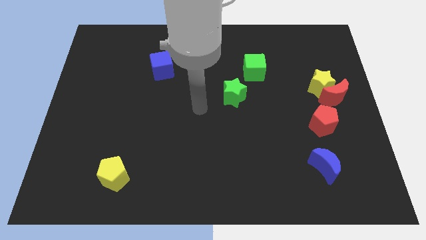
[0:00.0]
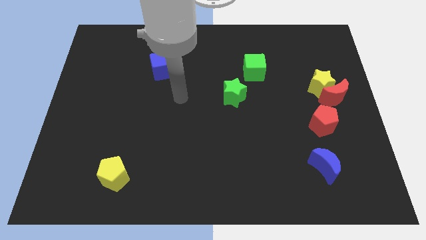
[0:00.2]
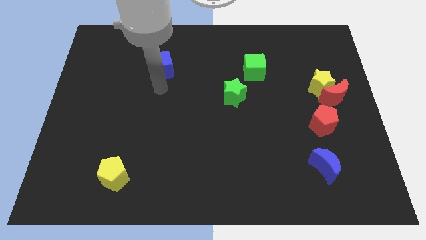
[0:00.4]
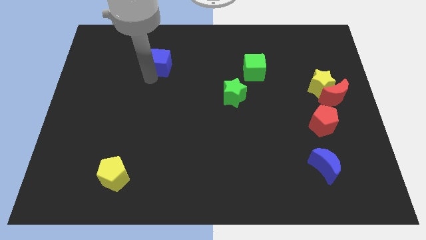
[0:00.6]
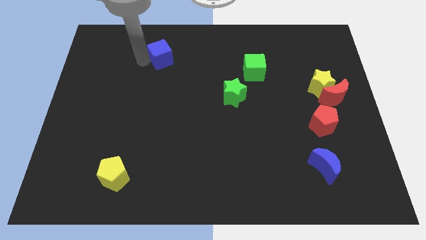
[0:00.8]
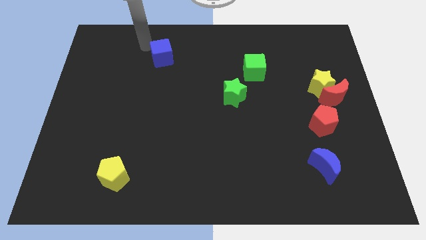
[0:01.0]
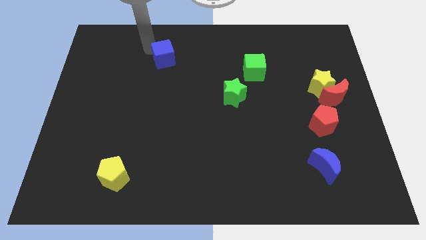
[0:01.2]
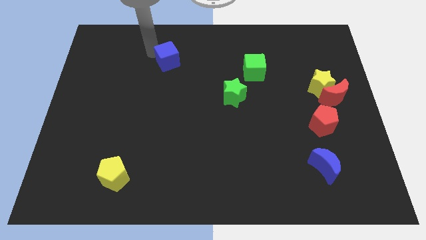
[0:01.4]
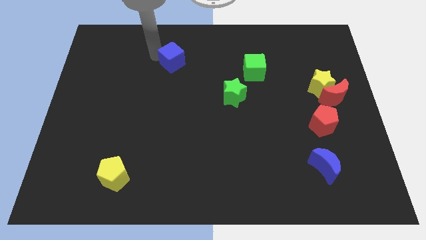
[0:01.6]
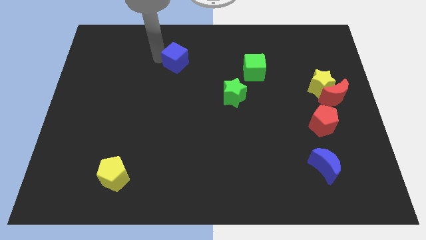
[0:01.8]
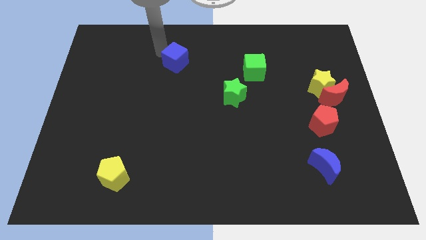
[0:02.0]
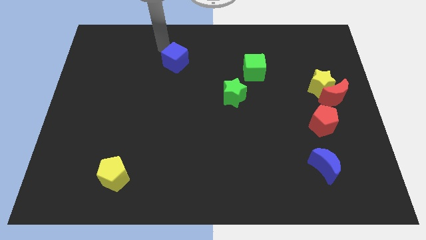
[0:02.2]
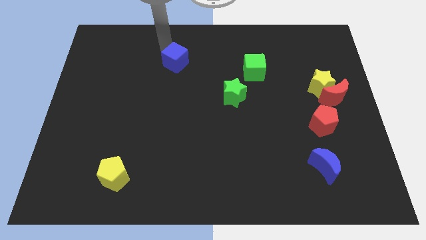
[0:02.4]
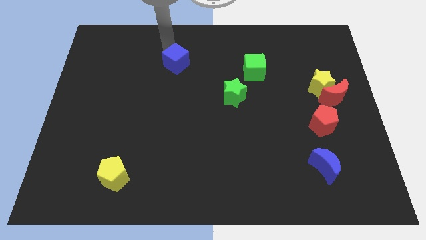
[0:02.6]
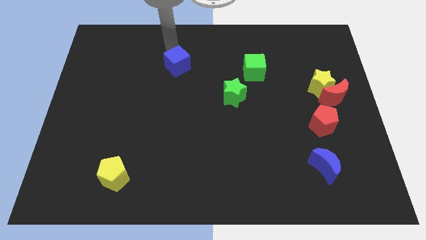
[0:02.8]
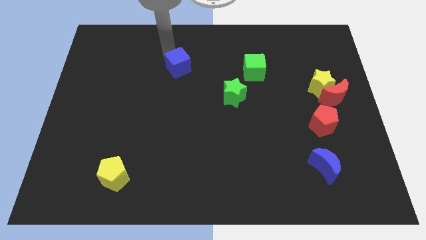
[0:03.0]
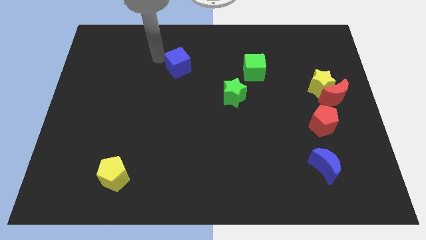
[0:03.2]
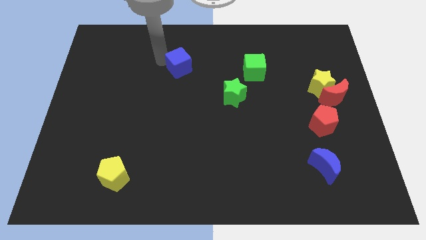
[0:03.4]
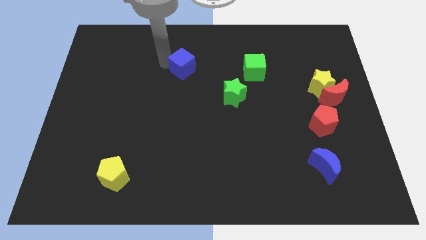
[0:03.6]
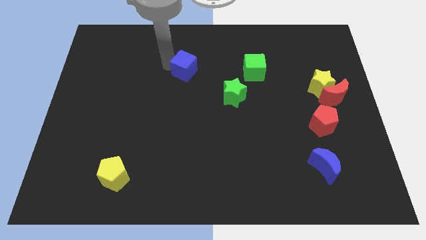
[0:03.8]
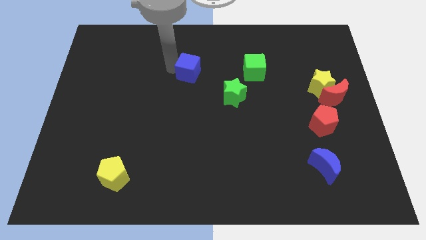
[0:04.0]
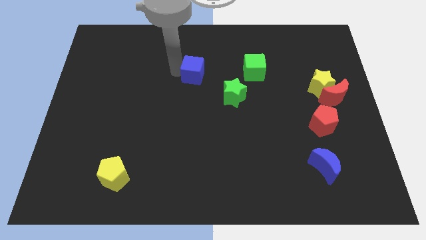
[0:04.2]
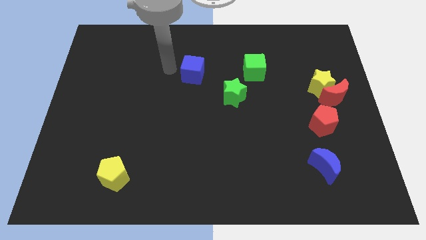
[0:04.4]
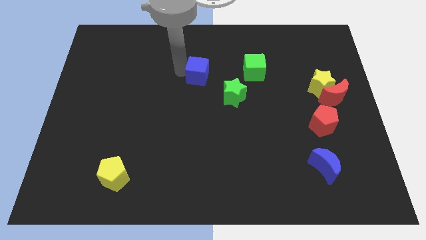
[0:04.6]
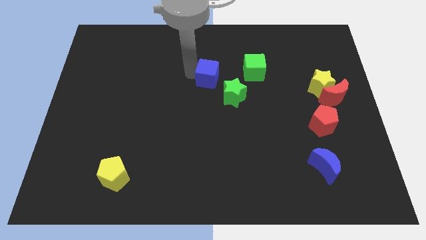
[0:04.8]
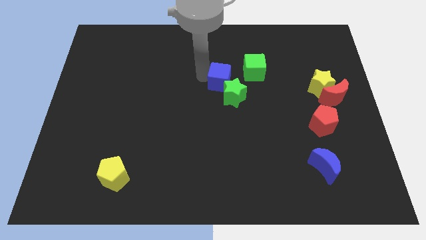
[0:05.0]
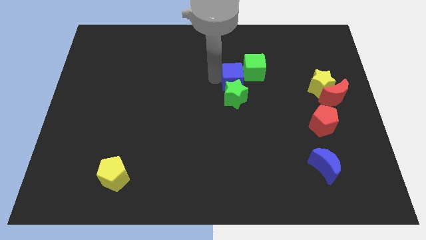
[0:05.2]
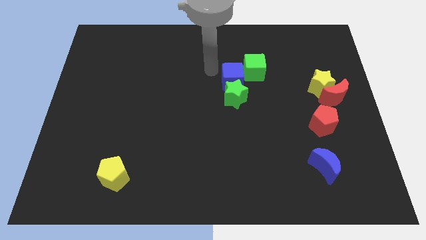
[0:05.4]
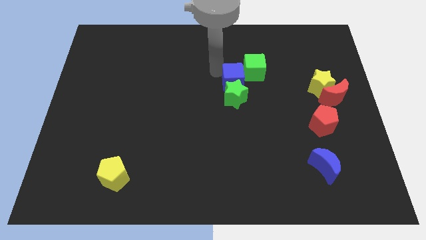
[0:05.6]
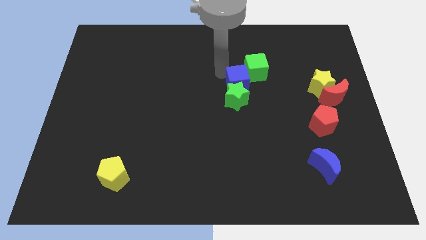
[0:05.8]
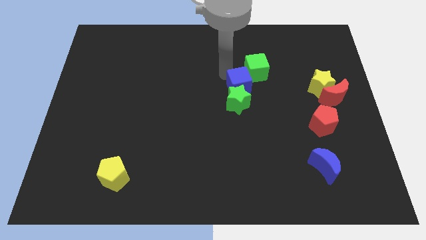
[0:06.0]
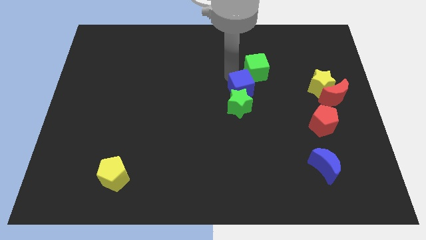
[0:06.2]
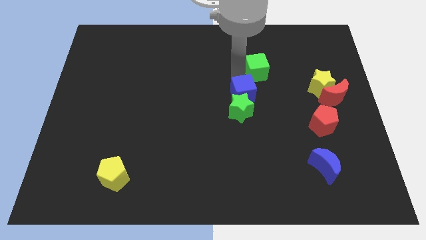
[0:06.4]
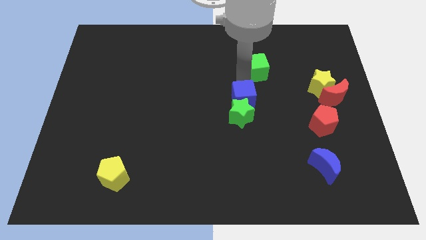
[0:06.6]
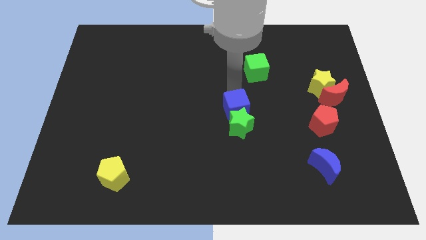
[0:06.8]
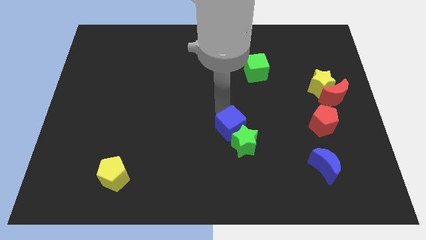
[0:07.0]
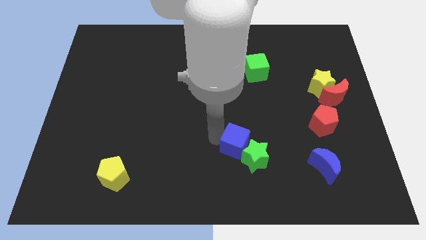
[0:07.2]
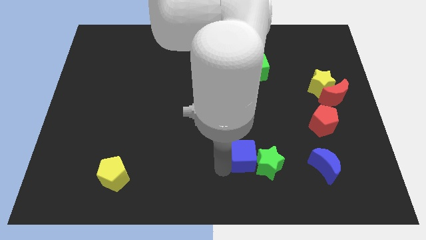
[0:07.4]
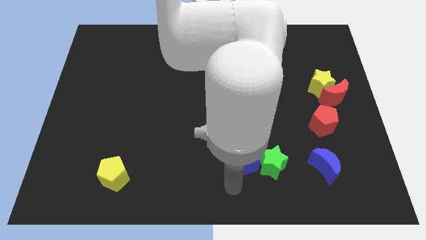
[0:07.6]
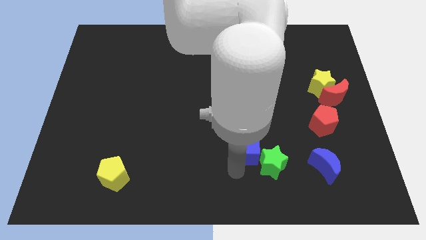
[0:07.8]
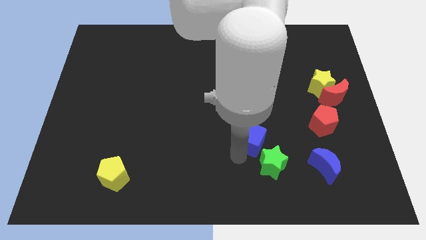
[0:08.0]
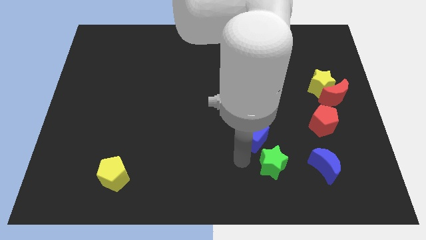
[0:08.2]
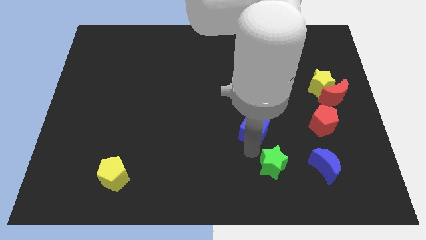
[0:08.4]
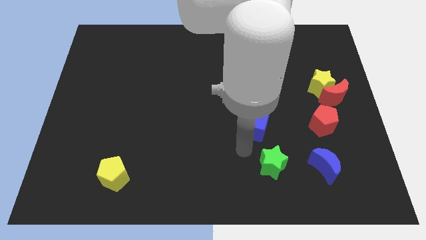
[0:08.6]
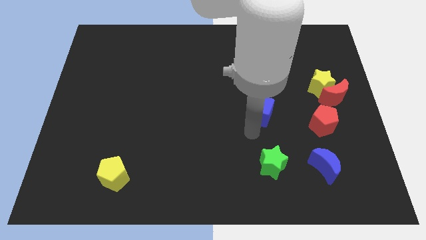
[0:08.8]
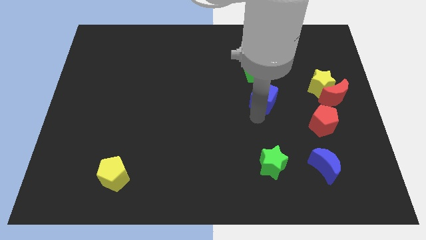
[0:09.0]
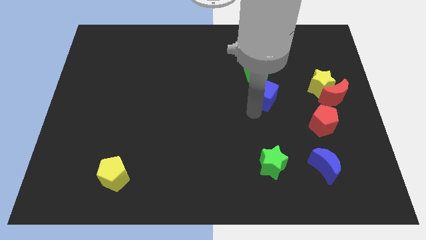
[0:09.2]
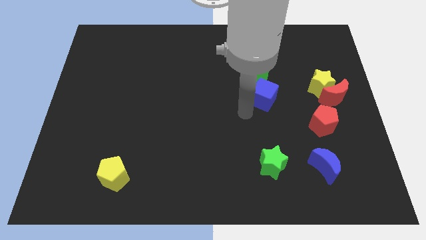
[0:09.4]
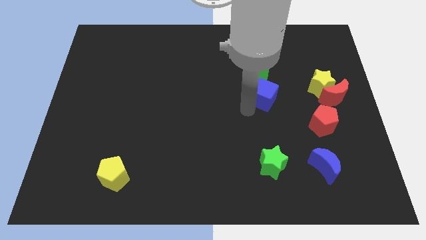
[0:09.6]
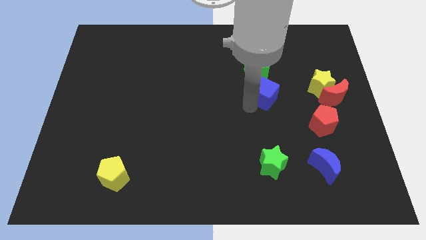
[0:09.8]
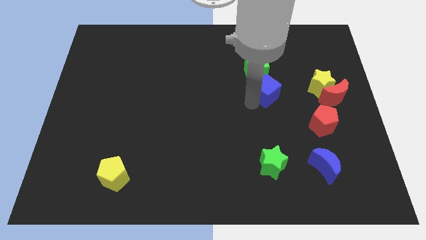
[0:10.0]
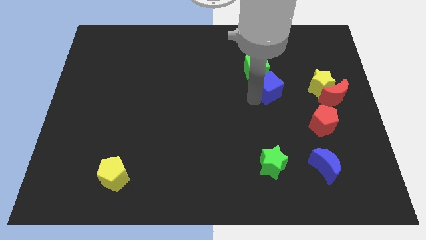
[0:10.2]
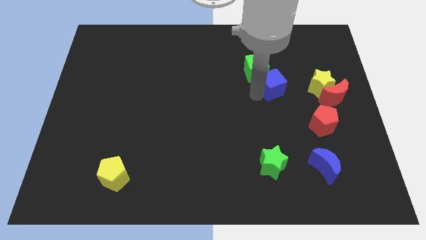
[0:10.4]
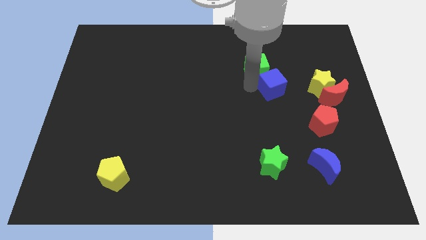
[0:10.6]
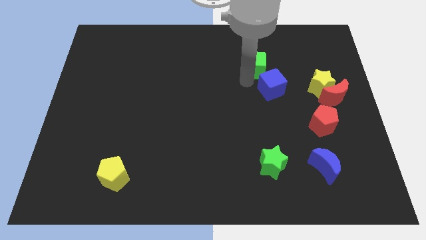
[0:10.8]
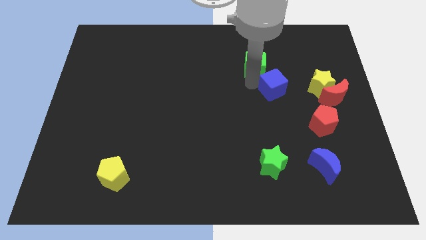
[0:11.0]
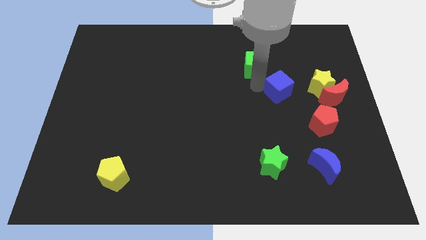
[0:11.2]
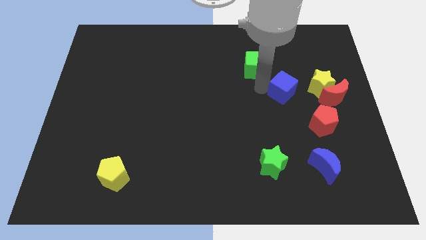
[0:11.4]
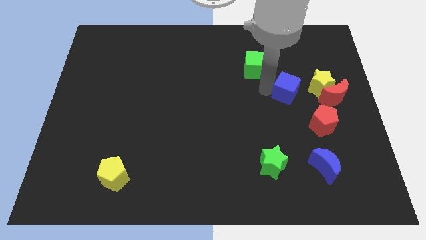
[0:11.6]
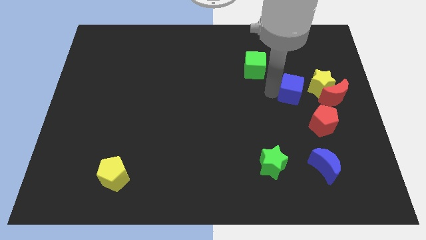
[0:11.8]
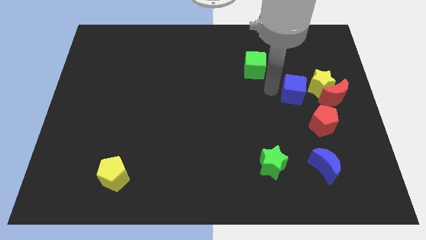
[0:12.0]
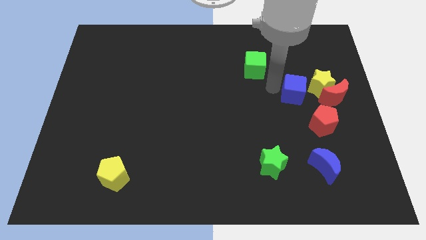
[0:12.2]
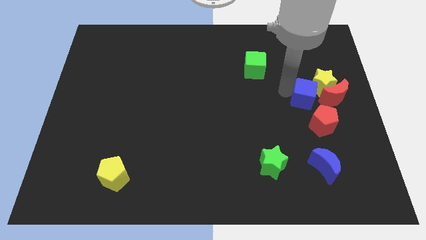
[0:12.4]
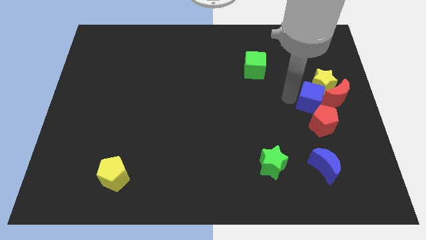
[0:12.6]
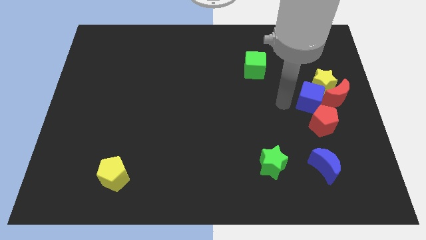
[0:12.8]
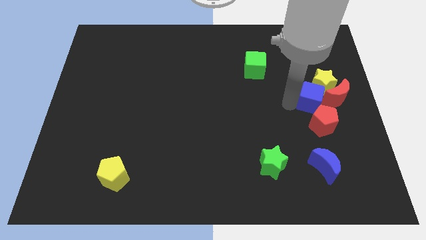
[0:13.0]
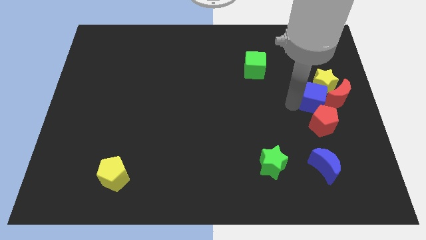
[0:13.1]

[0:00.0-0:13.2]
push the blue cube towards the red moon

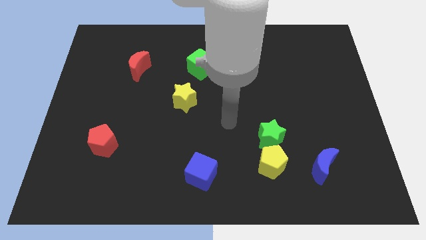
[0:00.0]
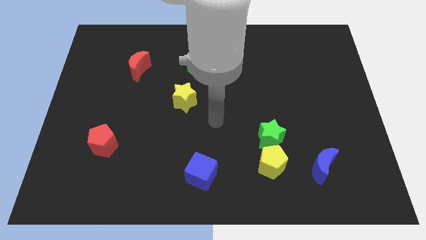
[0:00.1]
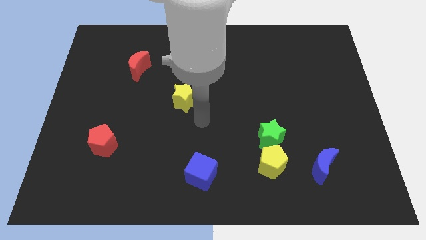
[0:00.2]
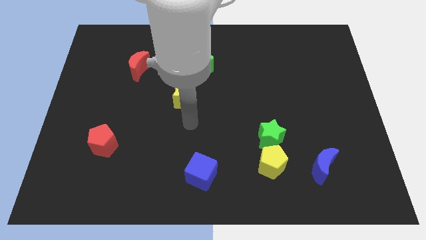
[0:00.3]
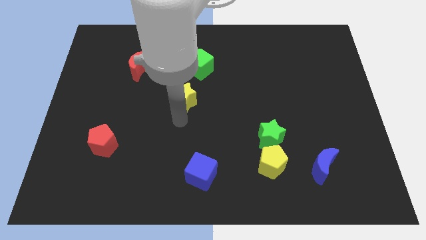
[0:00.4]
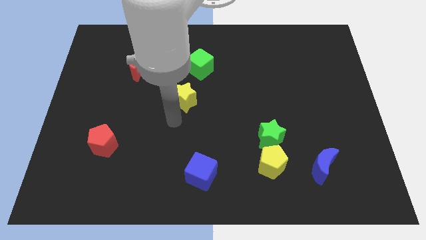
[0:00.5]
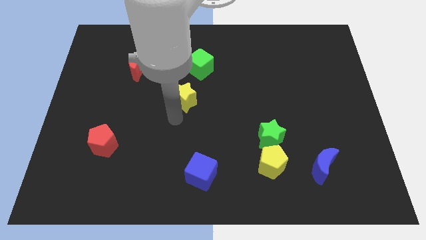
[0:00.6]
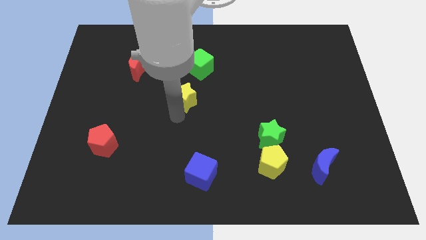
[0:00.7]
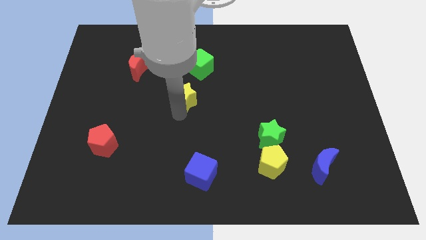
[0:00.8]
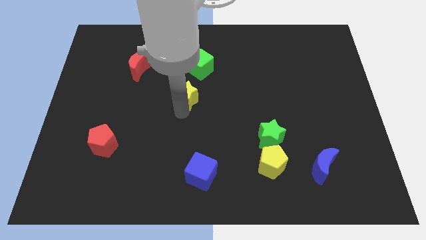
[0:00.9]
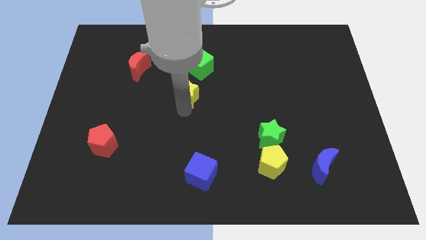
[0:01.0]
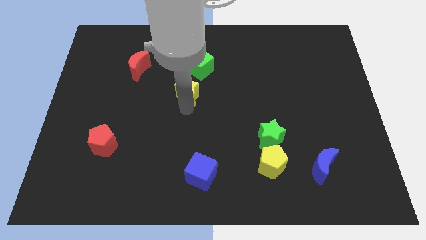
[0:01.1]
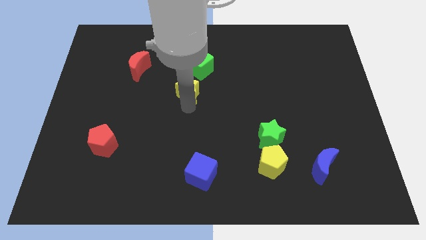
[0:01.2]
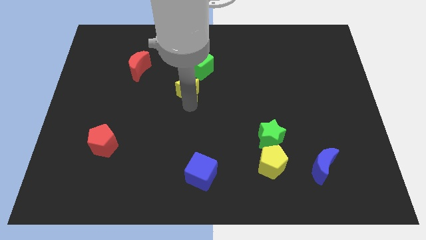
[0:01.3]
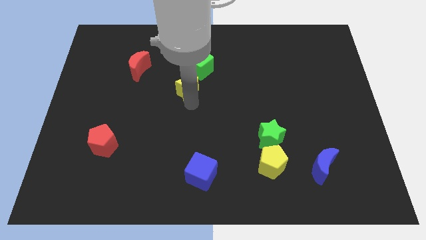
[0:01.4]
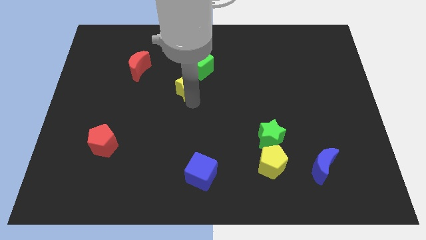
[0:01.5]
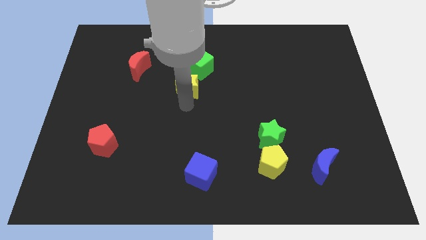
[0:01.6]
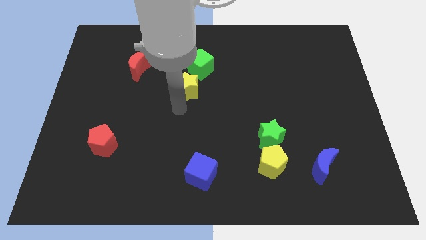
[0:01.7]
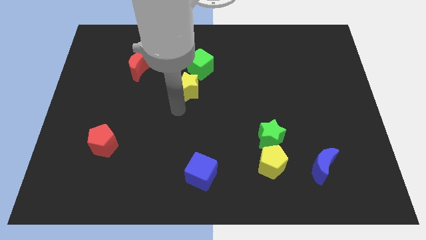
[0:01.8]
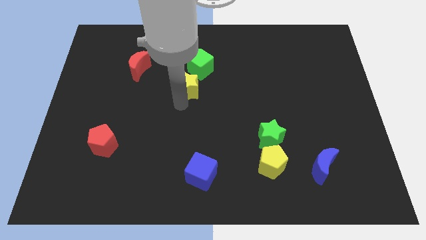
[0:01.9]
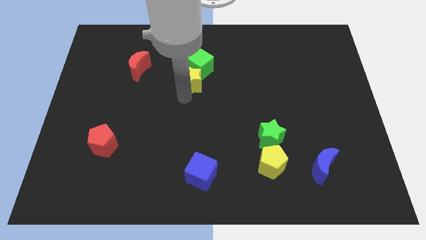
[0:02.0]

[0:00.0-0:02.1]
put the yellow star towards the green cube
